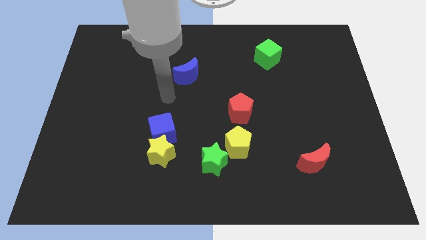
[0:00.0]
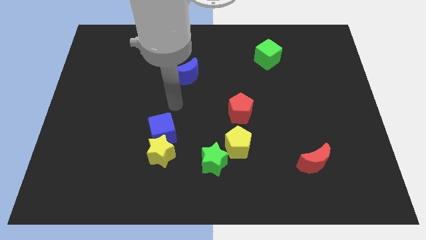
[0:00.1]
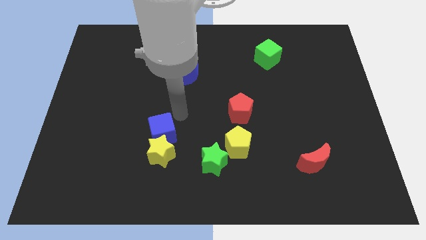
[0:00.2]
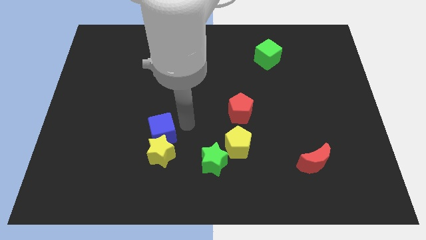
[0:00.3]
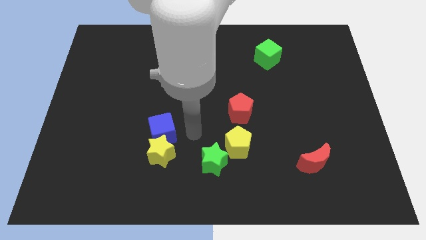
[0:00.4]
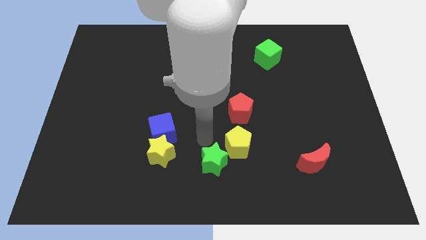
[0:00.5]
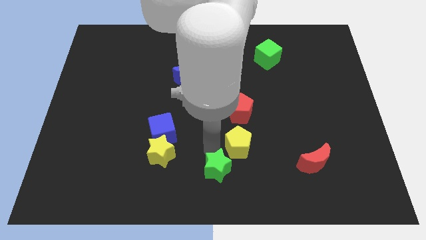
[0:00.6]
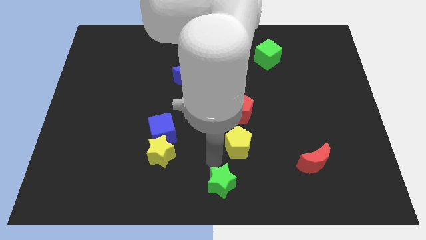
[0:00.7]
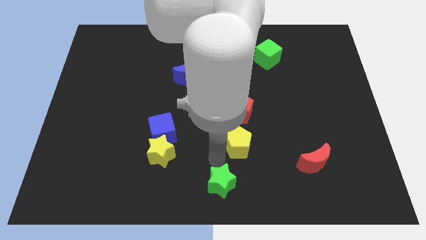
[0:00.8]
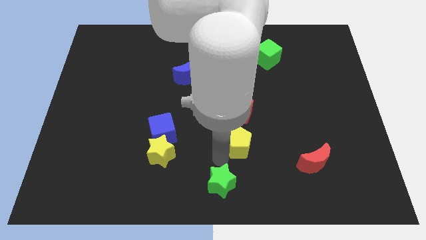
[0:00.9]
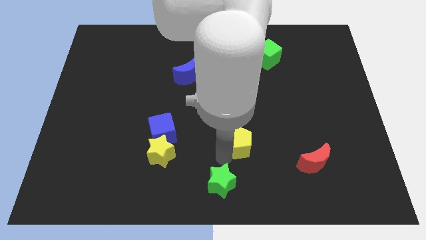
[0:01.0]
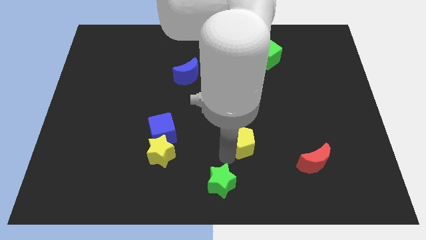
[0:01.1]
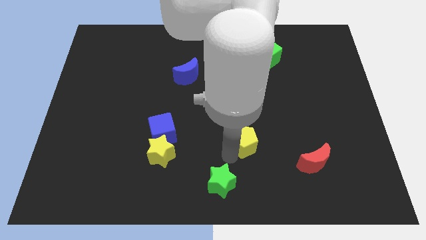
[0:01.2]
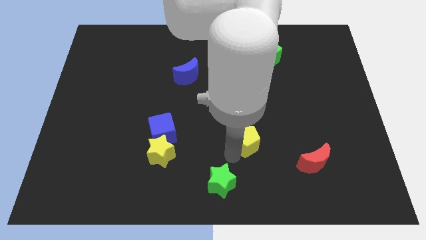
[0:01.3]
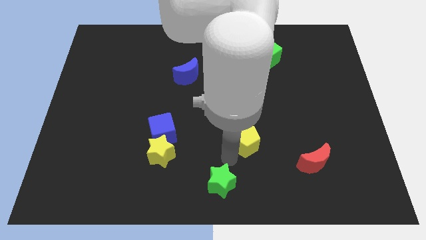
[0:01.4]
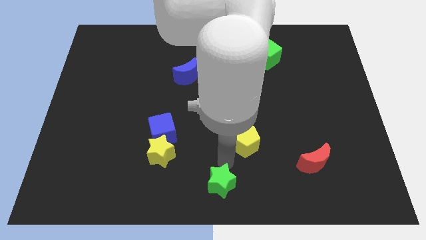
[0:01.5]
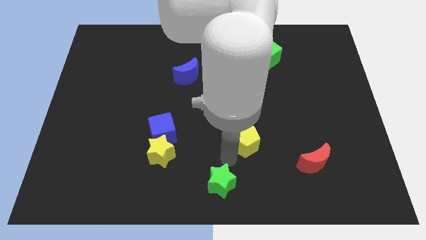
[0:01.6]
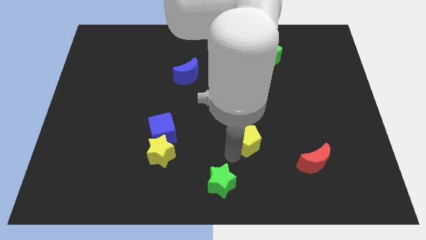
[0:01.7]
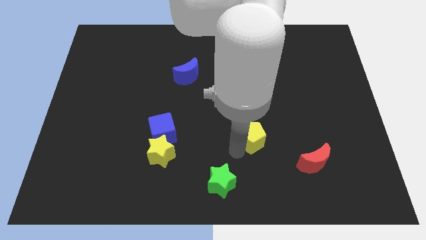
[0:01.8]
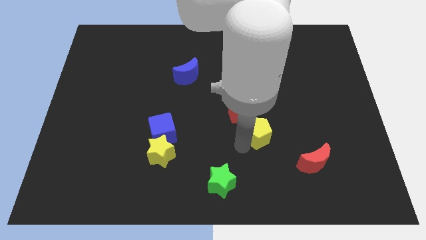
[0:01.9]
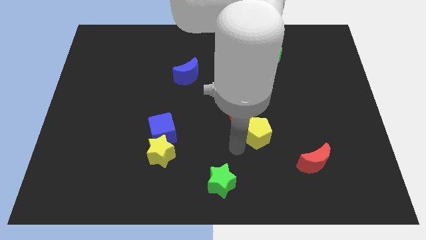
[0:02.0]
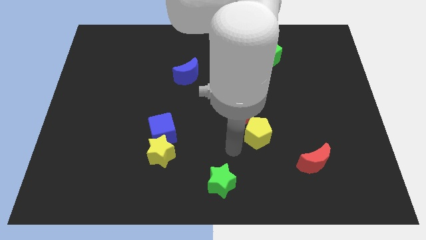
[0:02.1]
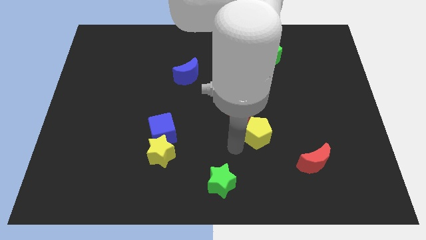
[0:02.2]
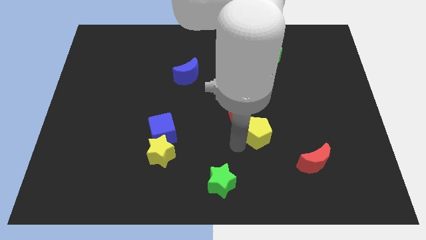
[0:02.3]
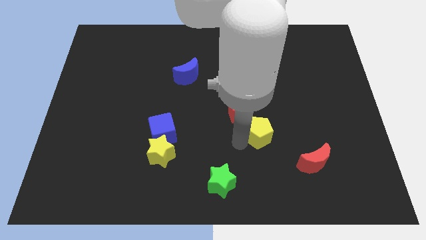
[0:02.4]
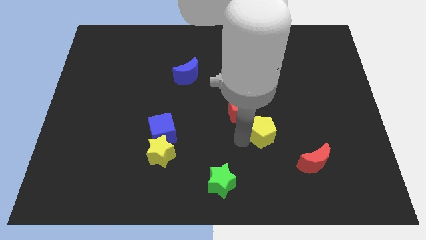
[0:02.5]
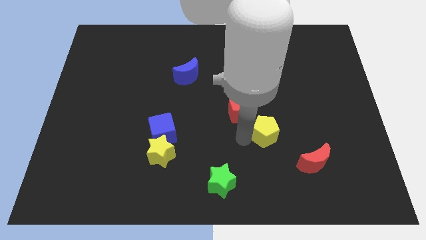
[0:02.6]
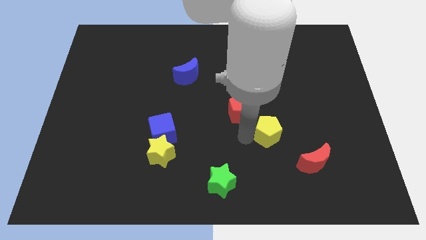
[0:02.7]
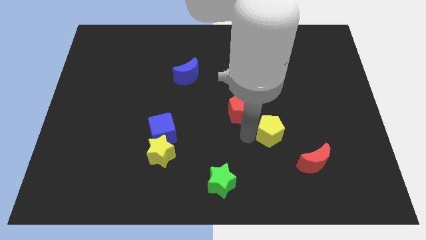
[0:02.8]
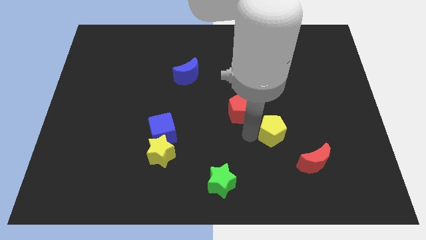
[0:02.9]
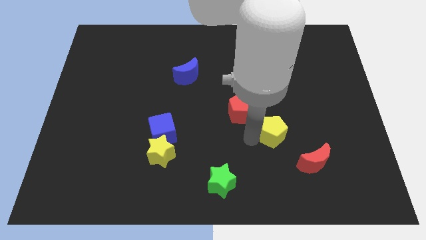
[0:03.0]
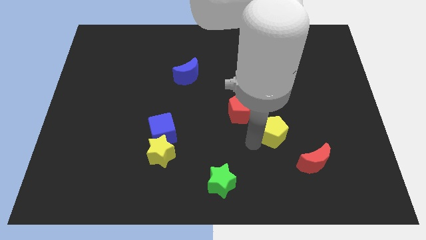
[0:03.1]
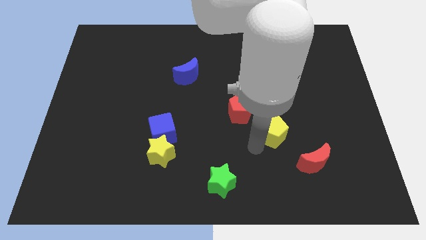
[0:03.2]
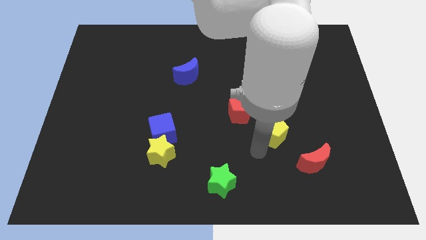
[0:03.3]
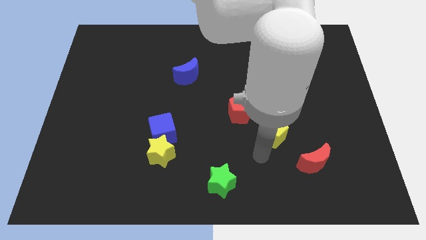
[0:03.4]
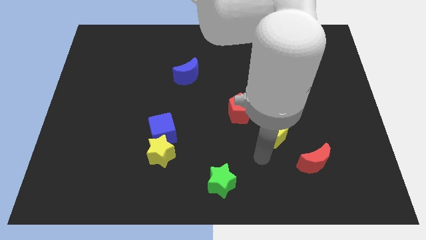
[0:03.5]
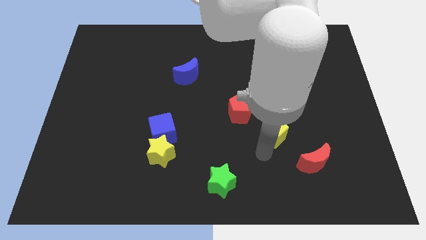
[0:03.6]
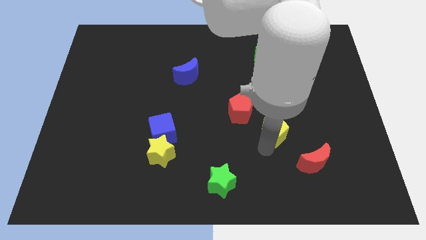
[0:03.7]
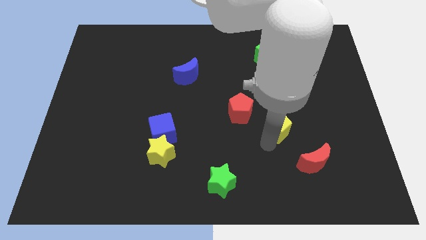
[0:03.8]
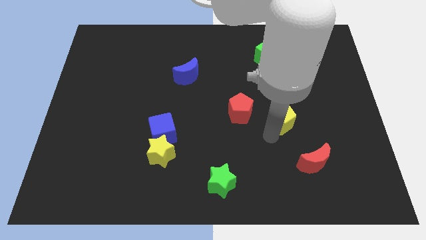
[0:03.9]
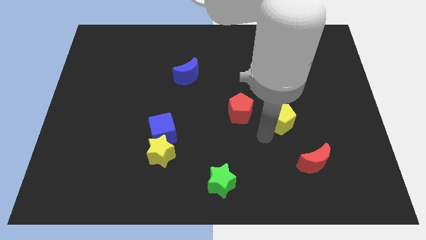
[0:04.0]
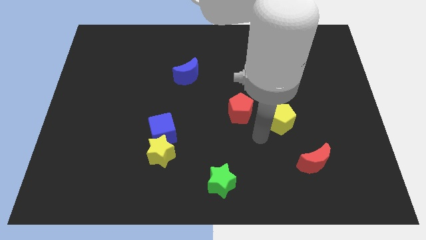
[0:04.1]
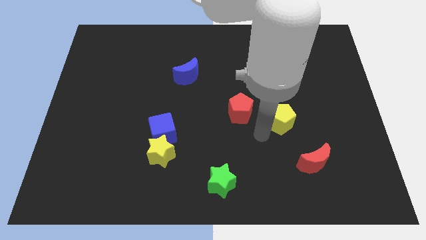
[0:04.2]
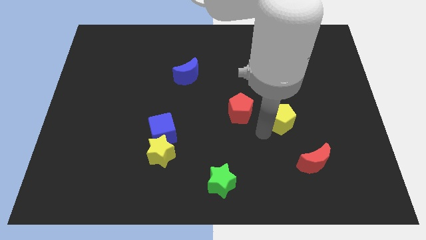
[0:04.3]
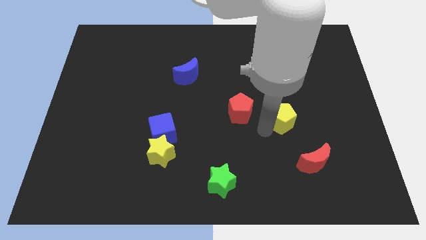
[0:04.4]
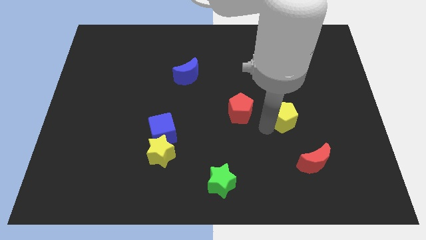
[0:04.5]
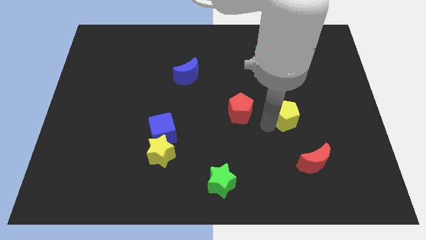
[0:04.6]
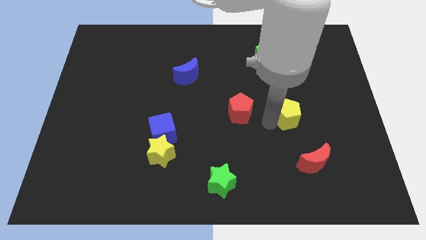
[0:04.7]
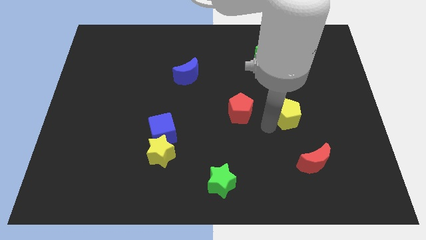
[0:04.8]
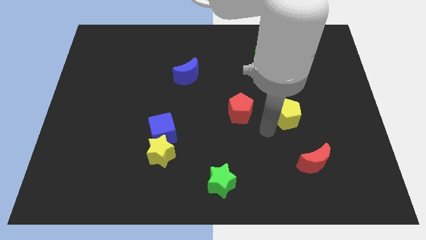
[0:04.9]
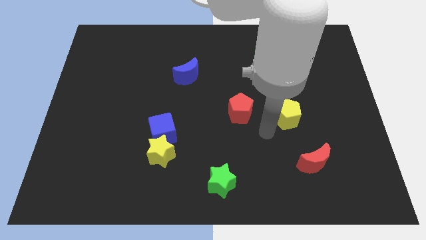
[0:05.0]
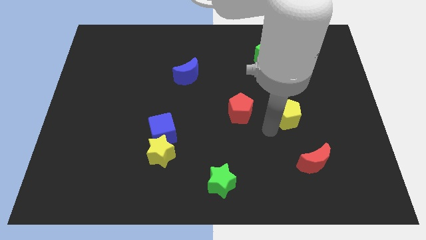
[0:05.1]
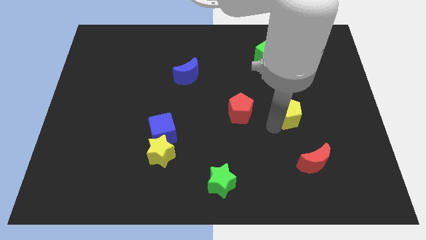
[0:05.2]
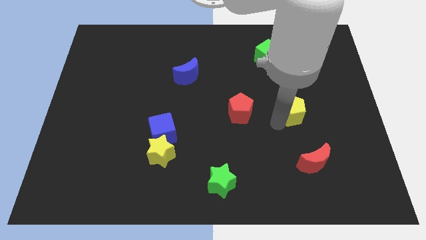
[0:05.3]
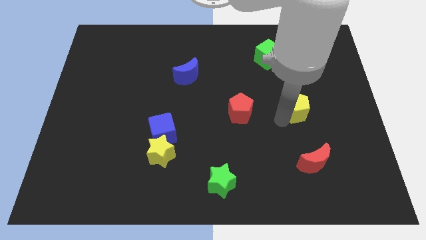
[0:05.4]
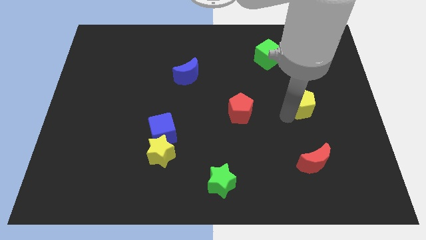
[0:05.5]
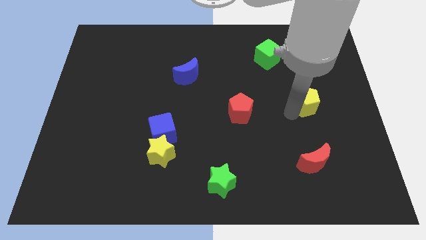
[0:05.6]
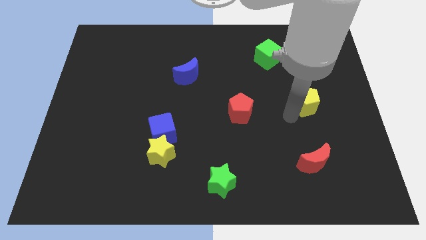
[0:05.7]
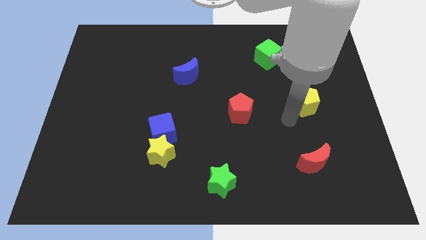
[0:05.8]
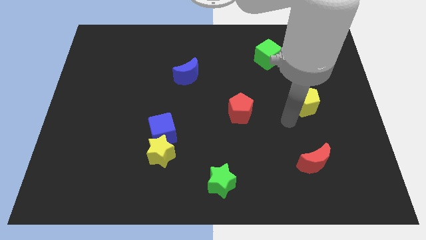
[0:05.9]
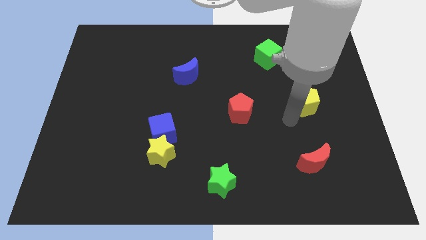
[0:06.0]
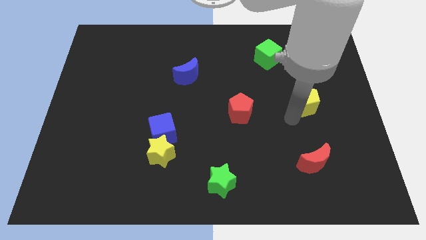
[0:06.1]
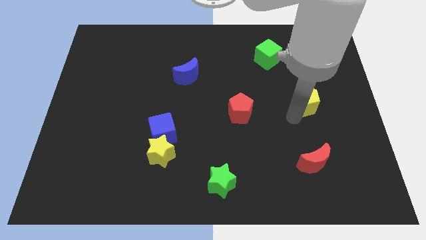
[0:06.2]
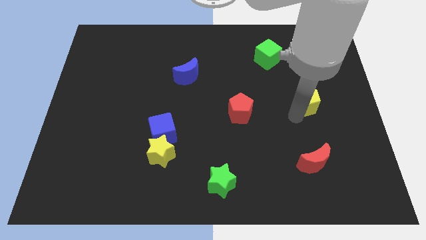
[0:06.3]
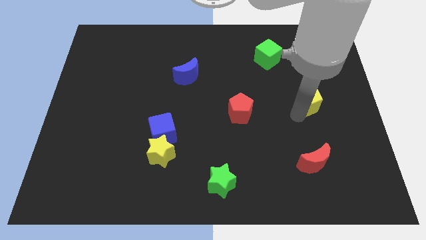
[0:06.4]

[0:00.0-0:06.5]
move the yellow pentagon up and then right

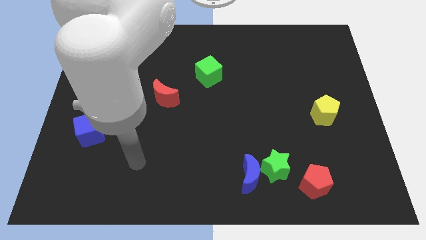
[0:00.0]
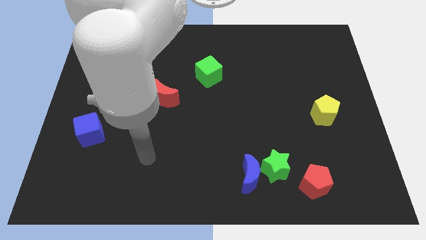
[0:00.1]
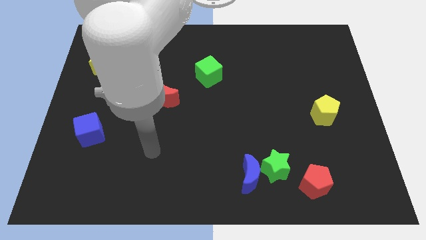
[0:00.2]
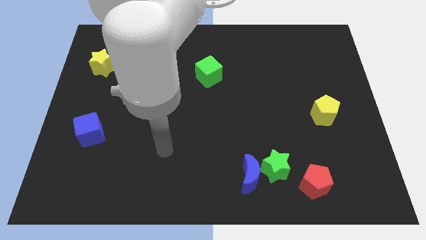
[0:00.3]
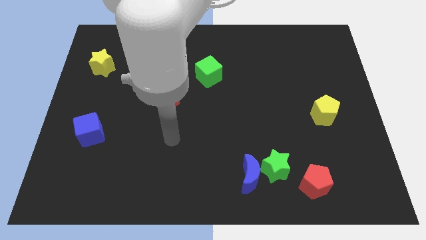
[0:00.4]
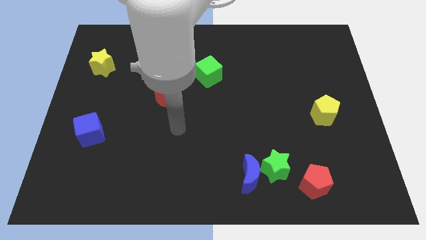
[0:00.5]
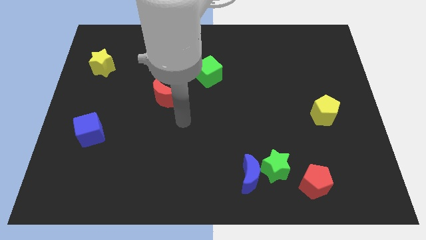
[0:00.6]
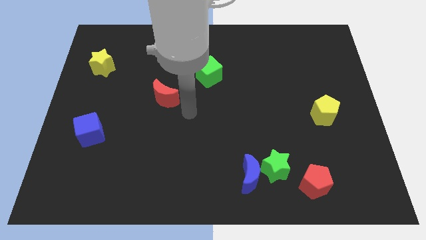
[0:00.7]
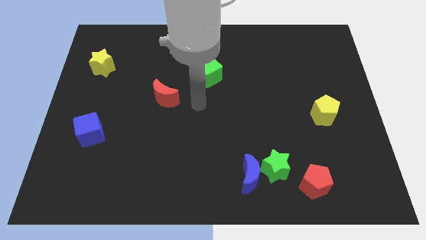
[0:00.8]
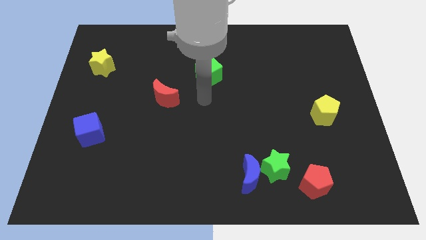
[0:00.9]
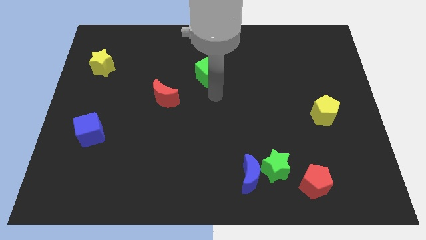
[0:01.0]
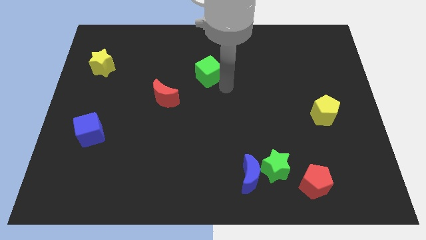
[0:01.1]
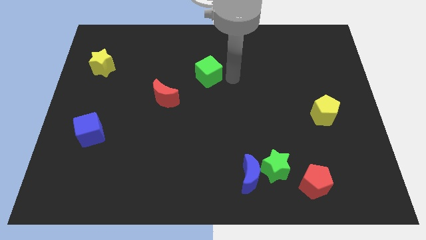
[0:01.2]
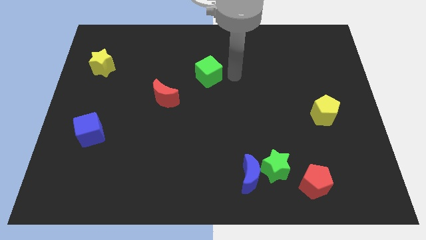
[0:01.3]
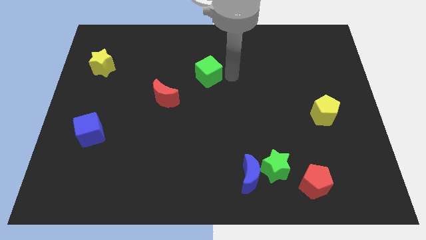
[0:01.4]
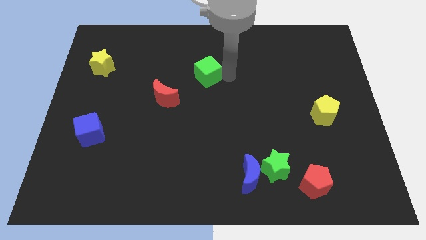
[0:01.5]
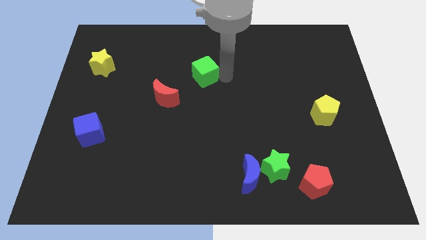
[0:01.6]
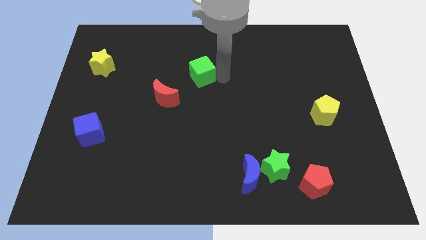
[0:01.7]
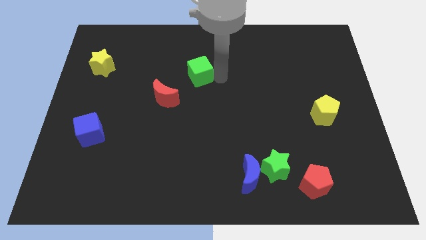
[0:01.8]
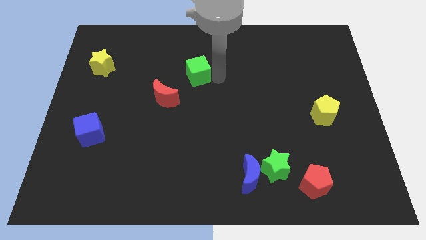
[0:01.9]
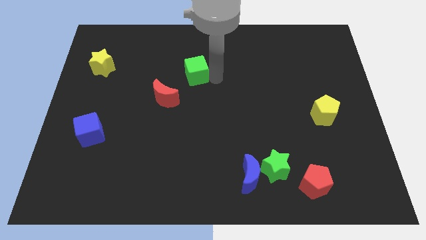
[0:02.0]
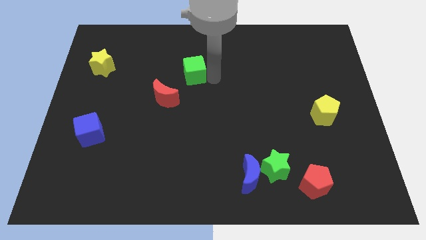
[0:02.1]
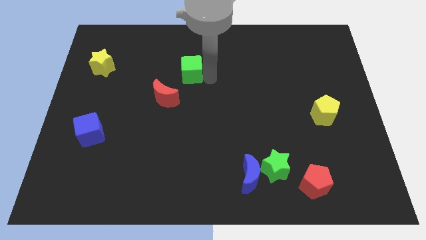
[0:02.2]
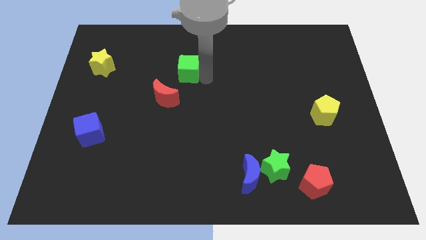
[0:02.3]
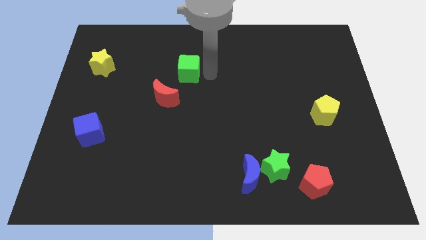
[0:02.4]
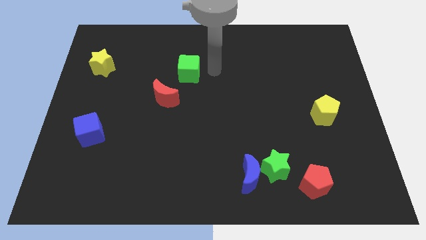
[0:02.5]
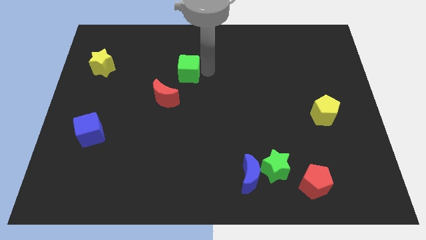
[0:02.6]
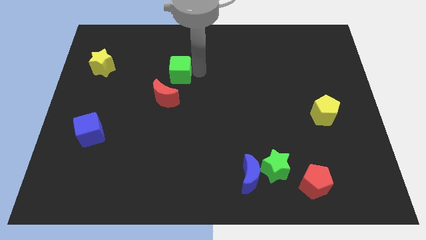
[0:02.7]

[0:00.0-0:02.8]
slide the green cube a bit left
